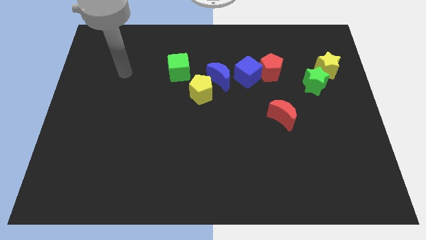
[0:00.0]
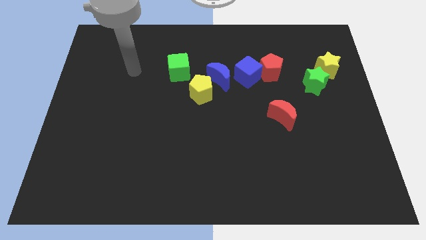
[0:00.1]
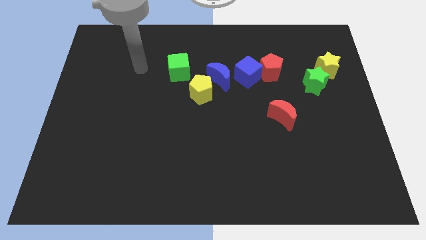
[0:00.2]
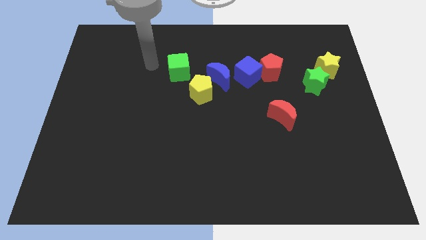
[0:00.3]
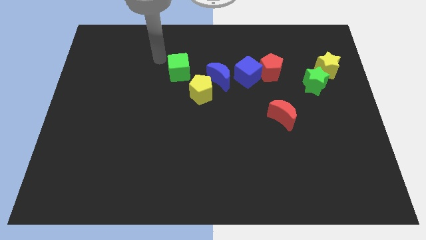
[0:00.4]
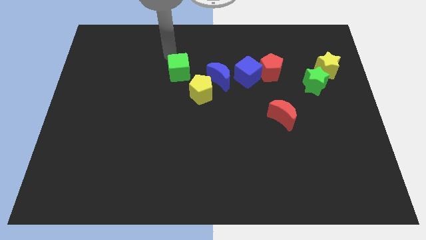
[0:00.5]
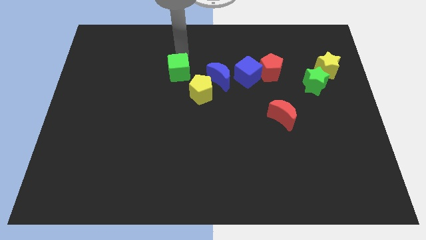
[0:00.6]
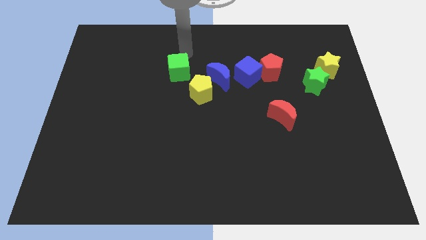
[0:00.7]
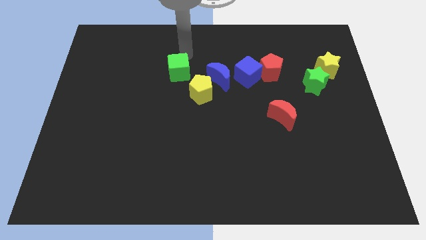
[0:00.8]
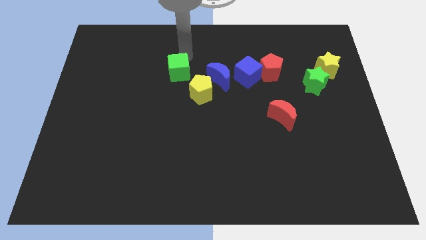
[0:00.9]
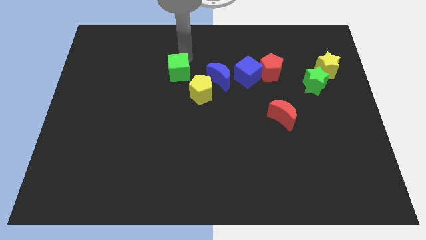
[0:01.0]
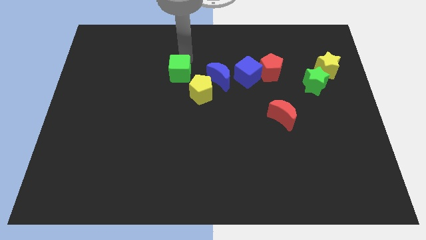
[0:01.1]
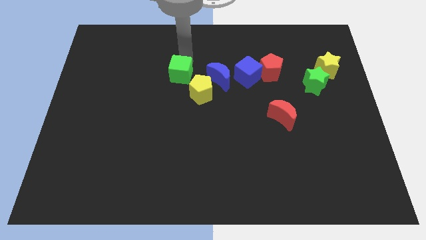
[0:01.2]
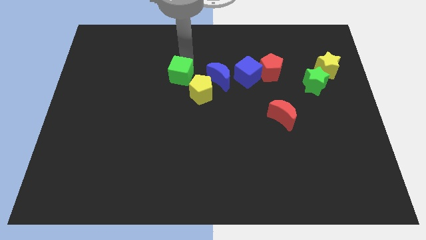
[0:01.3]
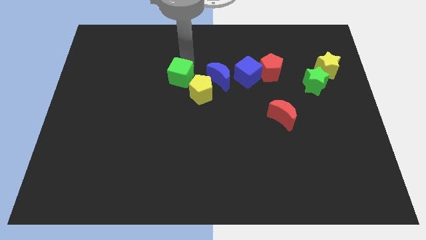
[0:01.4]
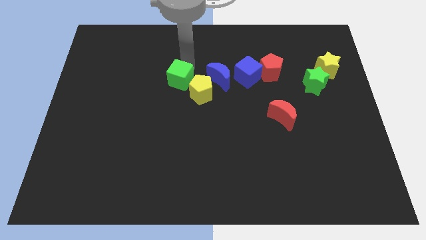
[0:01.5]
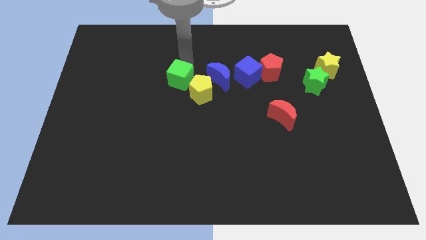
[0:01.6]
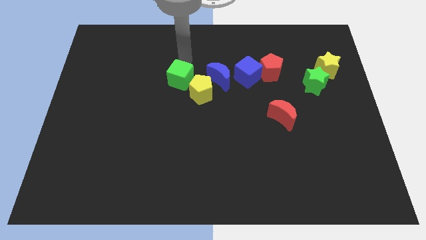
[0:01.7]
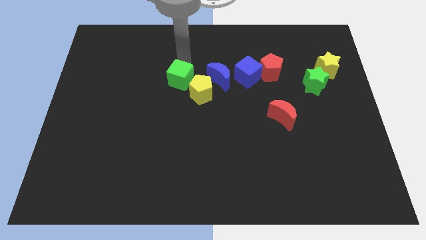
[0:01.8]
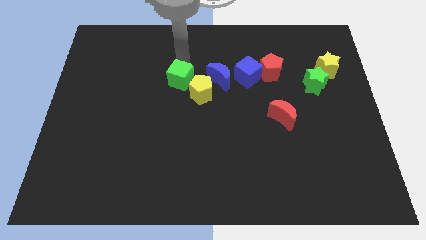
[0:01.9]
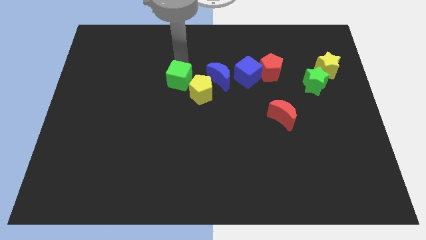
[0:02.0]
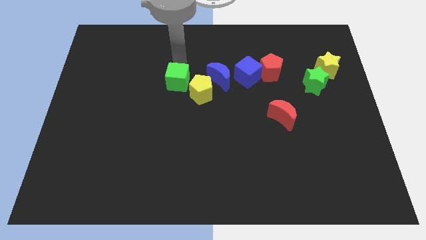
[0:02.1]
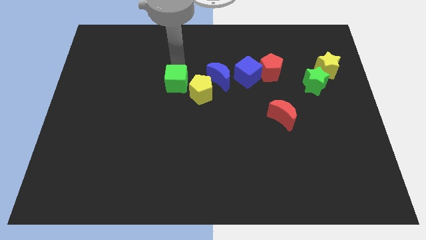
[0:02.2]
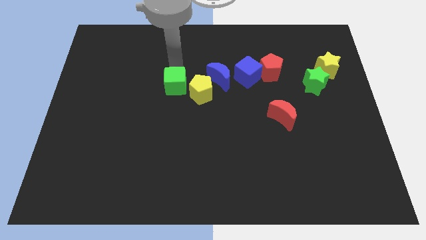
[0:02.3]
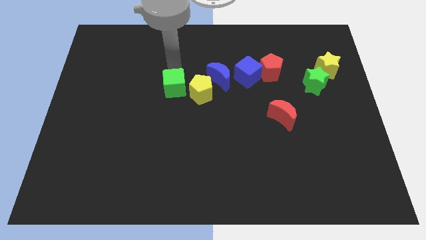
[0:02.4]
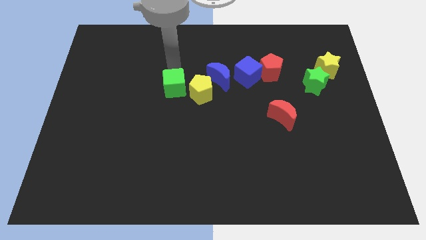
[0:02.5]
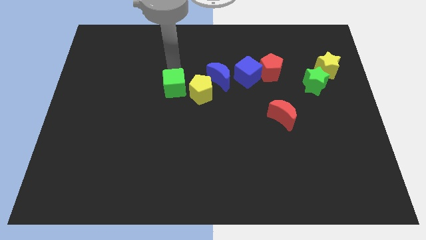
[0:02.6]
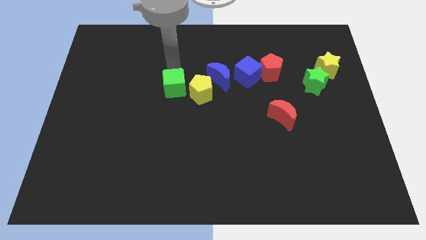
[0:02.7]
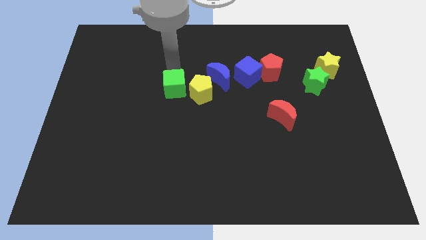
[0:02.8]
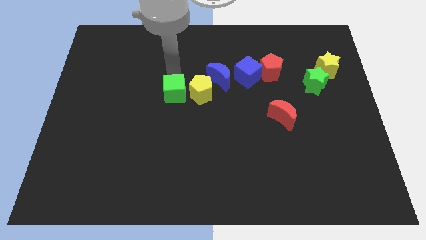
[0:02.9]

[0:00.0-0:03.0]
slide the green cube downwards a bit

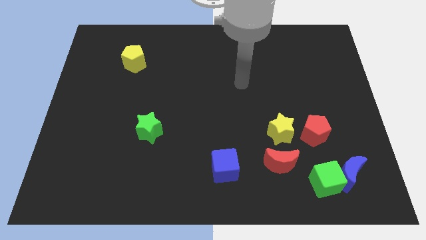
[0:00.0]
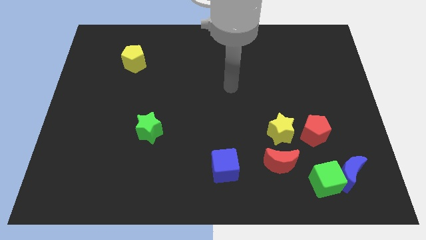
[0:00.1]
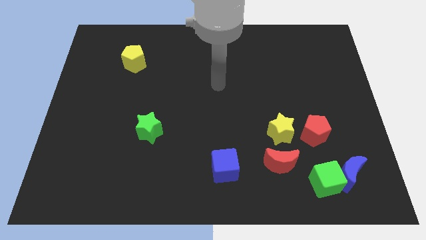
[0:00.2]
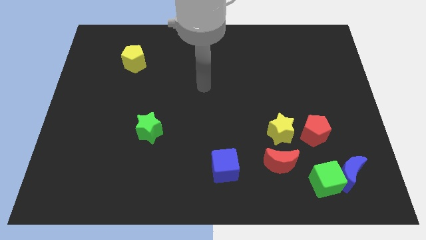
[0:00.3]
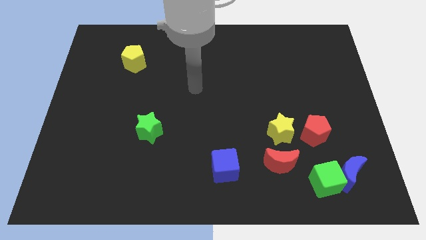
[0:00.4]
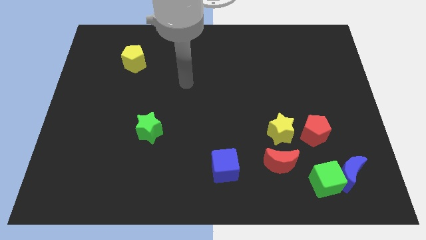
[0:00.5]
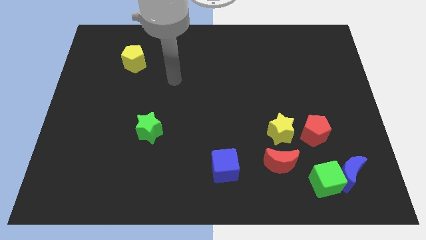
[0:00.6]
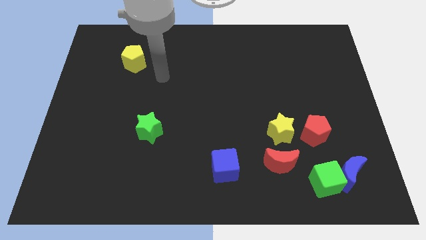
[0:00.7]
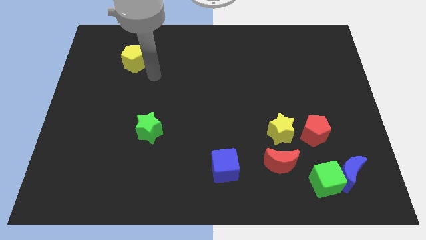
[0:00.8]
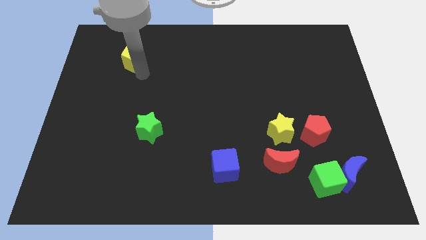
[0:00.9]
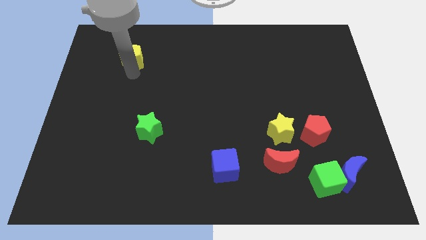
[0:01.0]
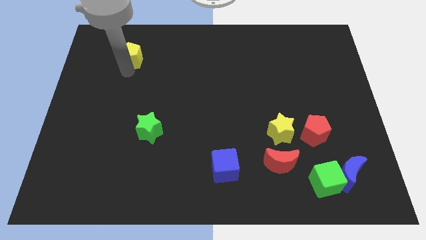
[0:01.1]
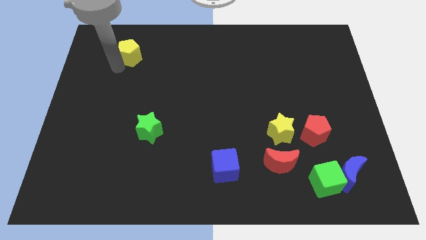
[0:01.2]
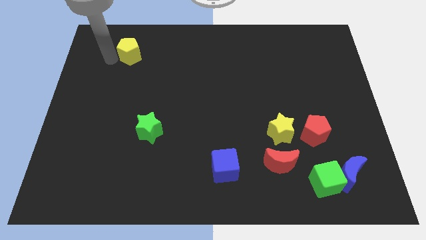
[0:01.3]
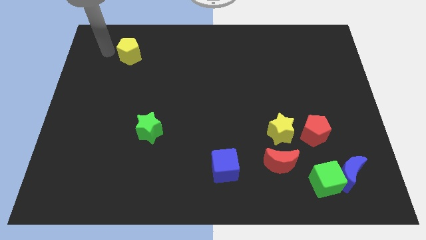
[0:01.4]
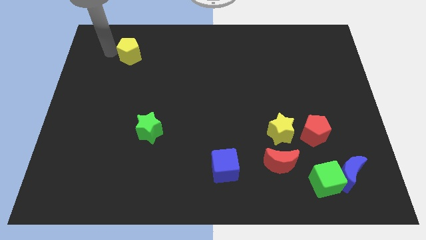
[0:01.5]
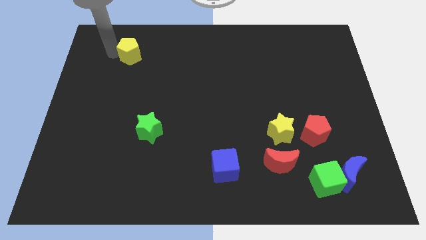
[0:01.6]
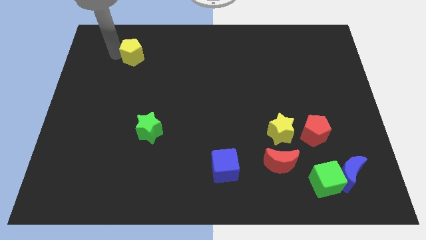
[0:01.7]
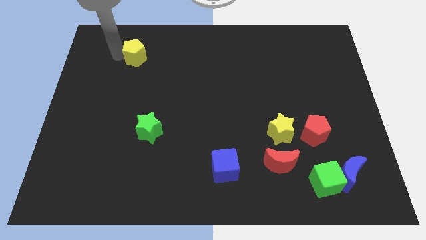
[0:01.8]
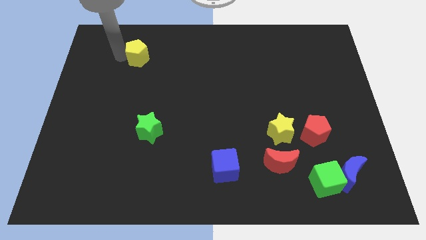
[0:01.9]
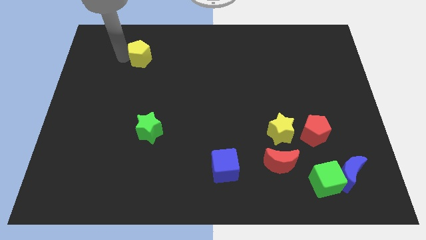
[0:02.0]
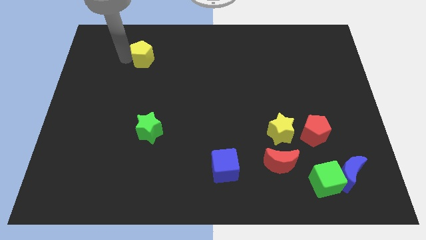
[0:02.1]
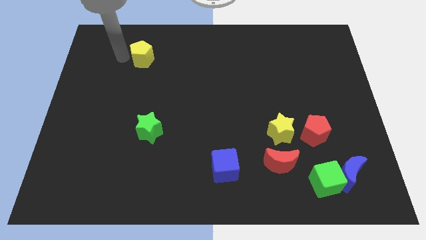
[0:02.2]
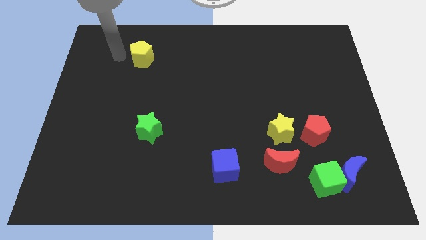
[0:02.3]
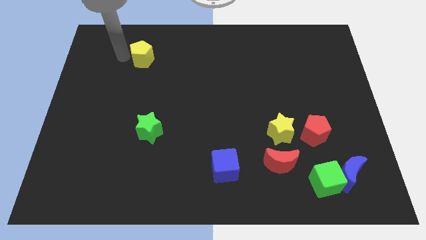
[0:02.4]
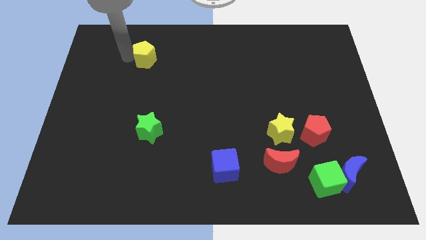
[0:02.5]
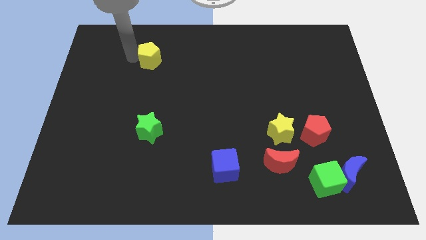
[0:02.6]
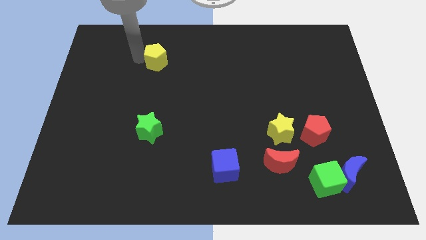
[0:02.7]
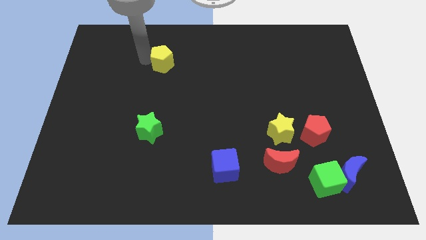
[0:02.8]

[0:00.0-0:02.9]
slightly move the yellow pentagon to the right

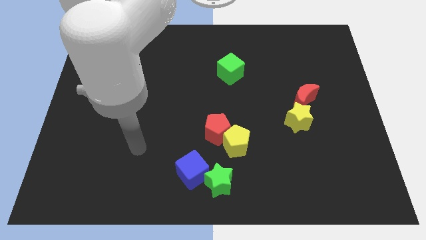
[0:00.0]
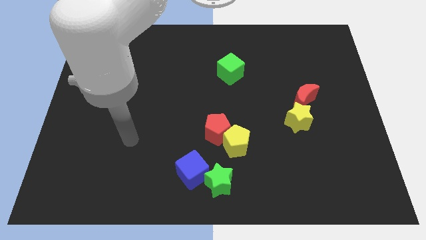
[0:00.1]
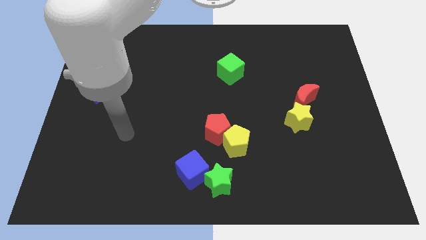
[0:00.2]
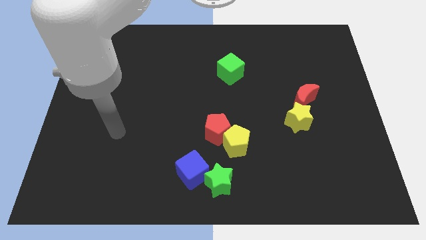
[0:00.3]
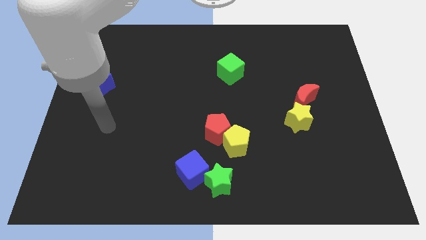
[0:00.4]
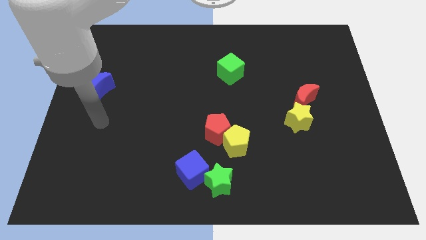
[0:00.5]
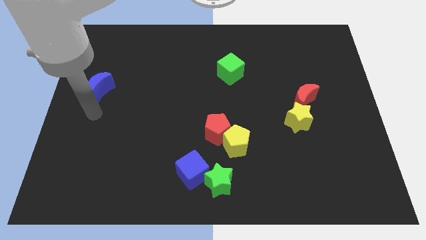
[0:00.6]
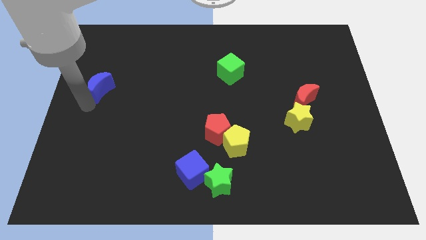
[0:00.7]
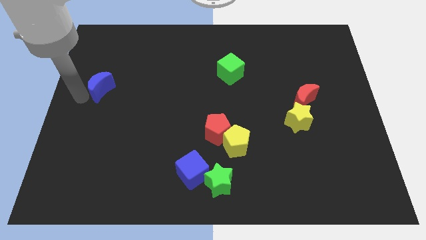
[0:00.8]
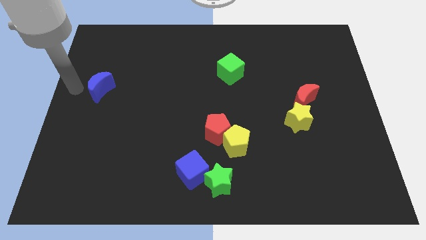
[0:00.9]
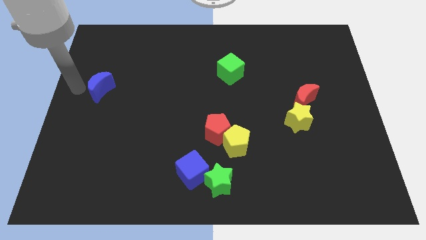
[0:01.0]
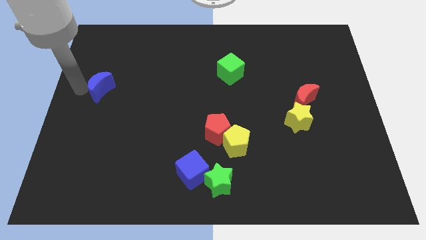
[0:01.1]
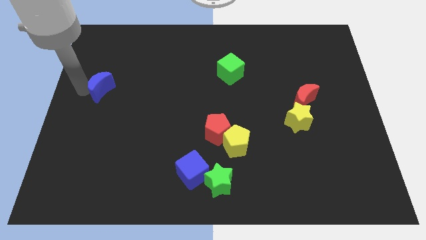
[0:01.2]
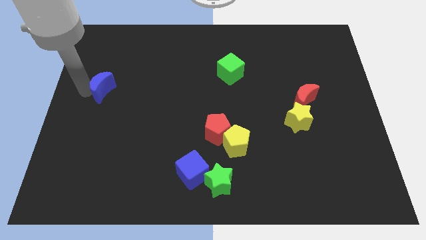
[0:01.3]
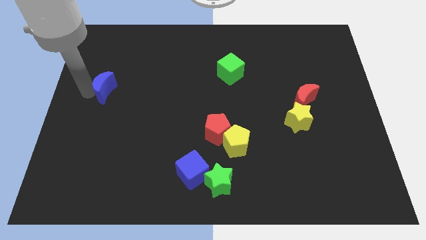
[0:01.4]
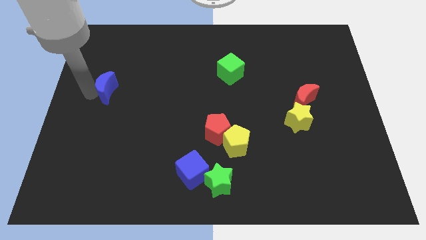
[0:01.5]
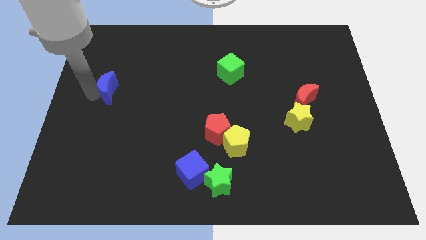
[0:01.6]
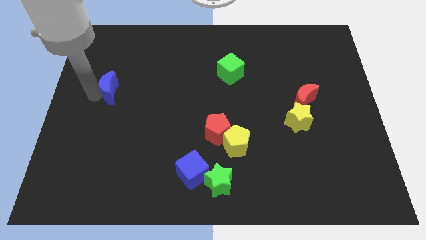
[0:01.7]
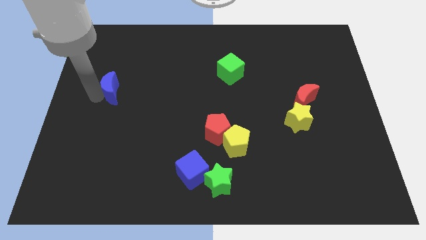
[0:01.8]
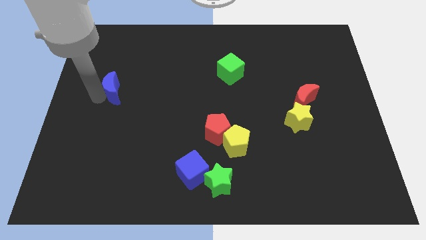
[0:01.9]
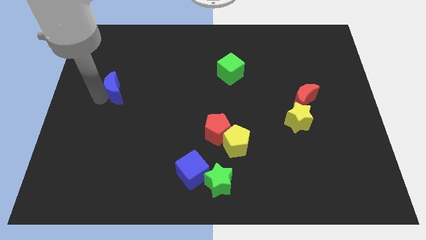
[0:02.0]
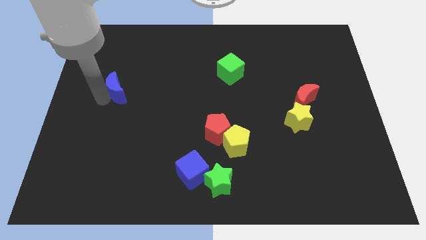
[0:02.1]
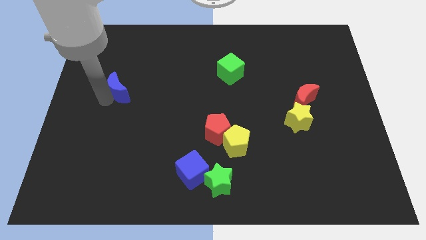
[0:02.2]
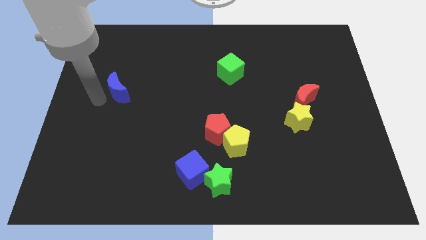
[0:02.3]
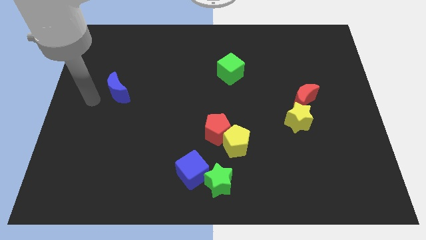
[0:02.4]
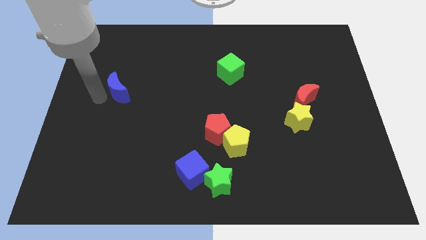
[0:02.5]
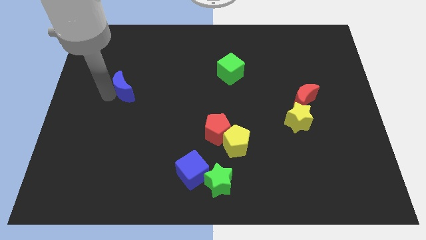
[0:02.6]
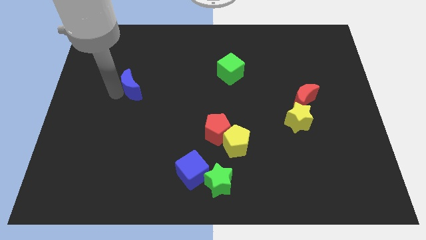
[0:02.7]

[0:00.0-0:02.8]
push the blue moon somewhat to the right

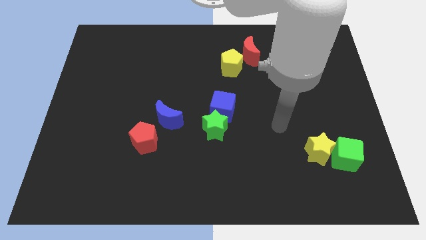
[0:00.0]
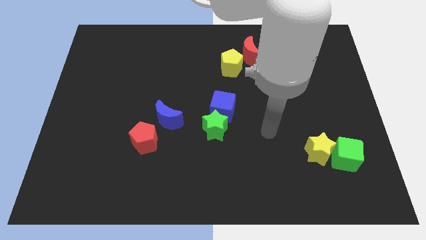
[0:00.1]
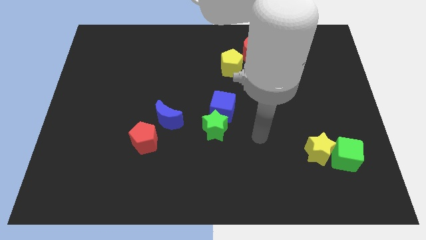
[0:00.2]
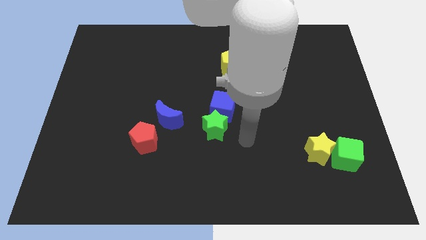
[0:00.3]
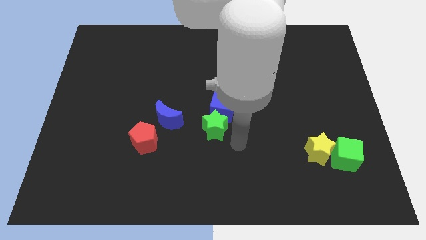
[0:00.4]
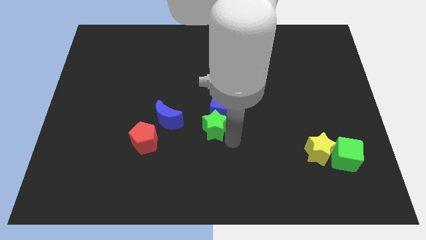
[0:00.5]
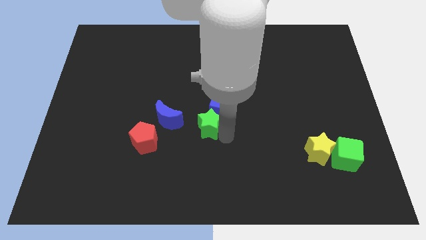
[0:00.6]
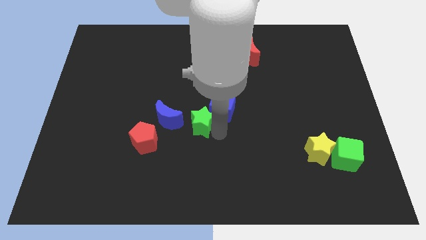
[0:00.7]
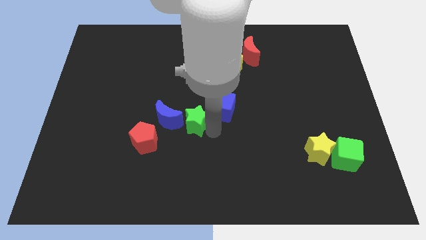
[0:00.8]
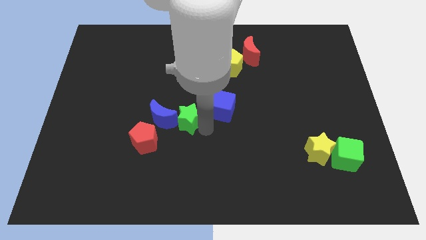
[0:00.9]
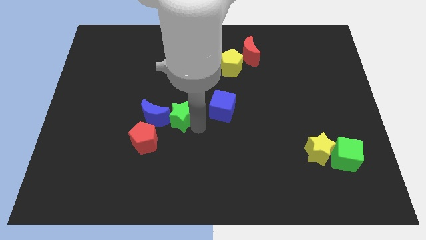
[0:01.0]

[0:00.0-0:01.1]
push the green star left somewhat
